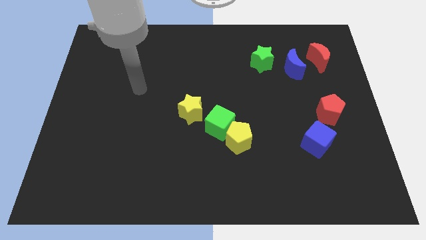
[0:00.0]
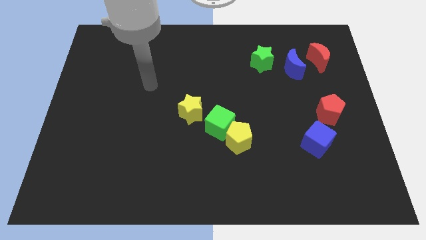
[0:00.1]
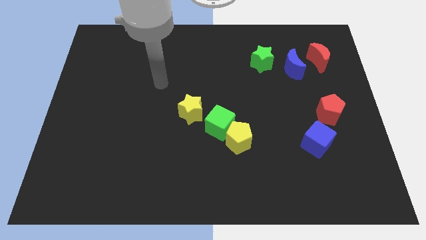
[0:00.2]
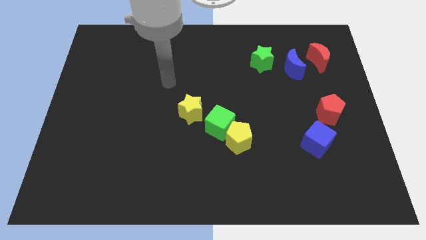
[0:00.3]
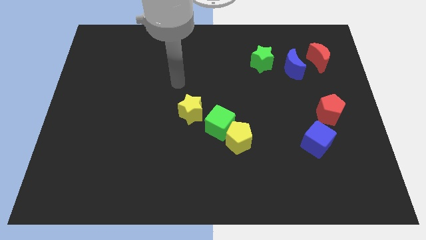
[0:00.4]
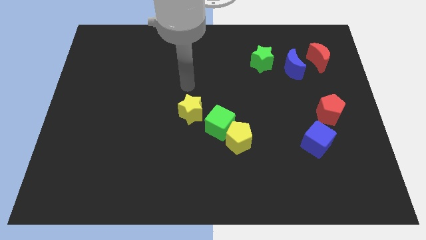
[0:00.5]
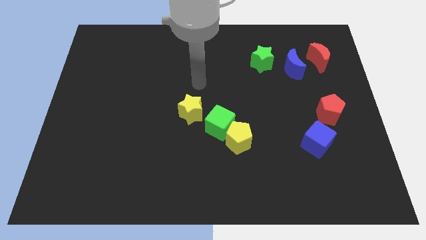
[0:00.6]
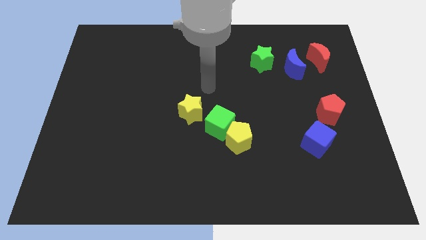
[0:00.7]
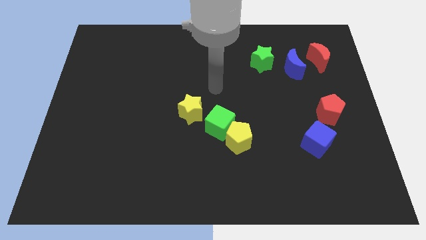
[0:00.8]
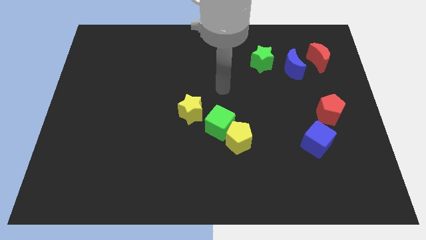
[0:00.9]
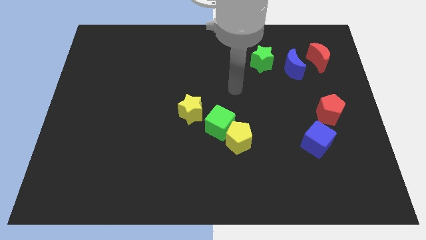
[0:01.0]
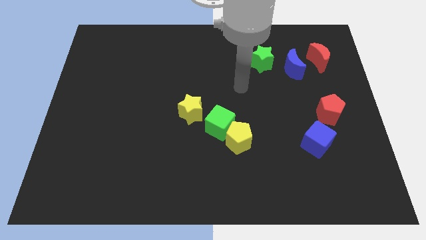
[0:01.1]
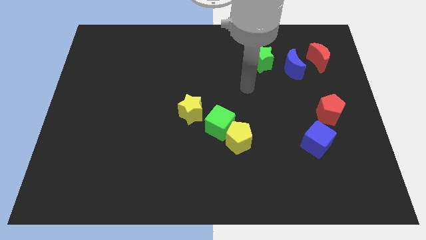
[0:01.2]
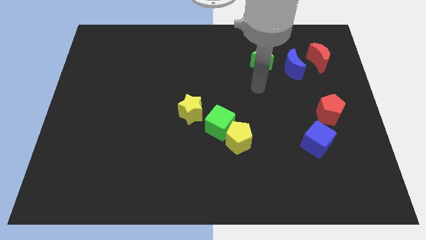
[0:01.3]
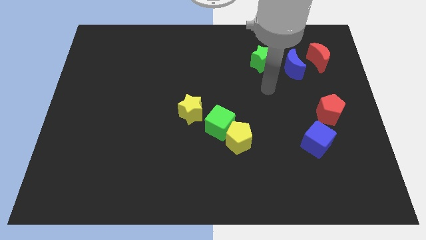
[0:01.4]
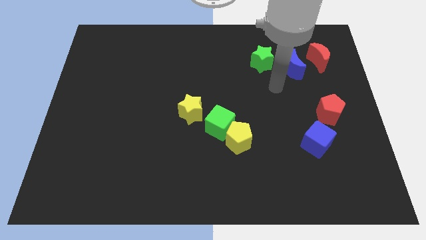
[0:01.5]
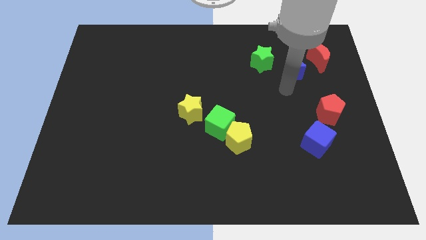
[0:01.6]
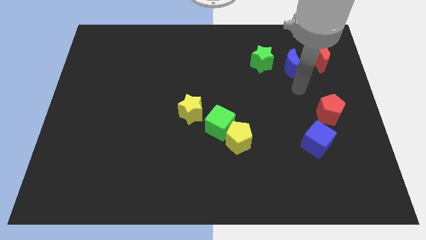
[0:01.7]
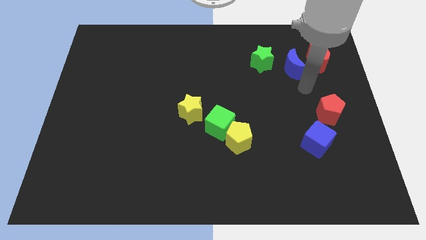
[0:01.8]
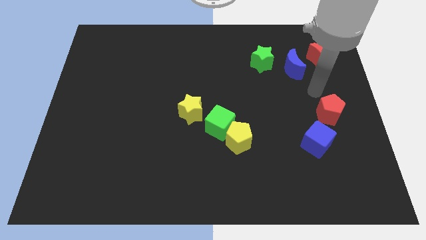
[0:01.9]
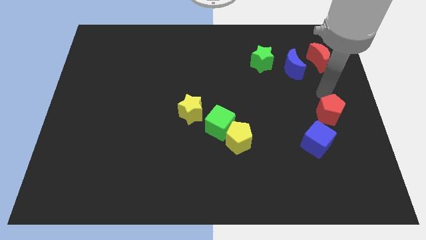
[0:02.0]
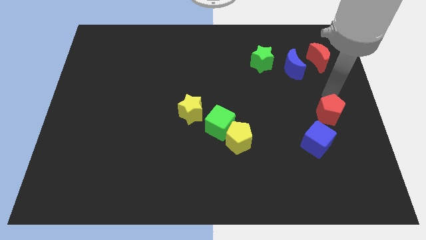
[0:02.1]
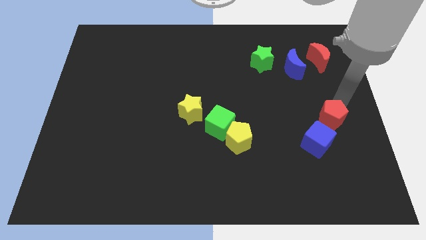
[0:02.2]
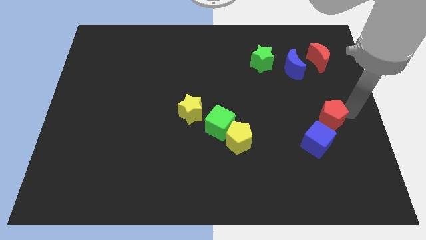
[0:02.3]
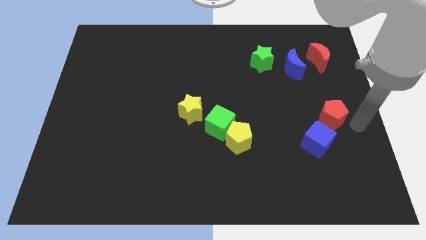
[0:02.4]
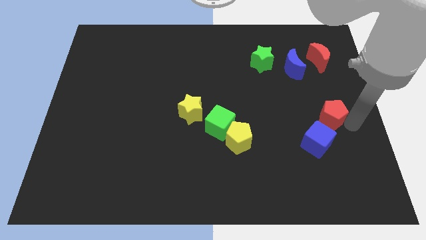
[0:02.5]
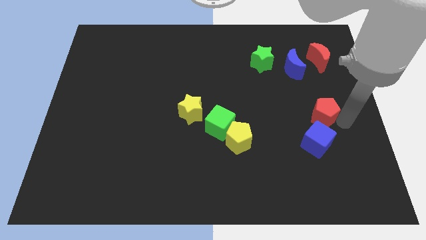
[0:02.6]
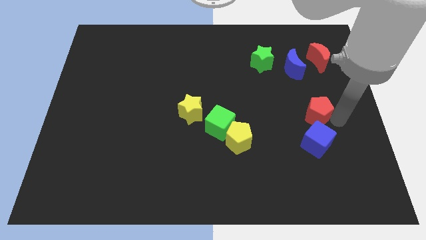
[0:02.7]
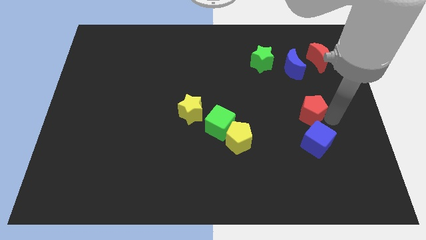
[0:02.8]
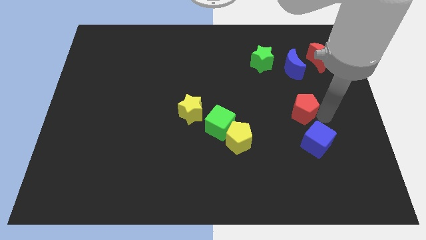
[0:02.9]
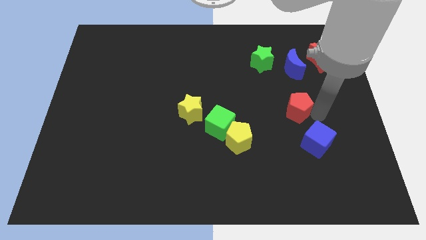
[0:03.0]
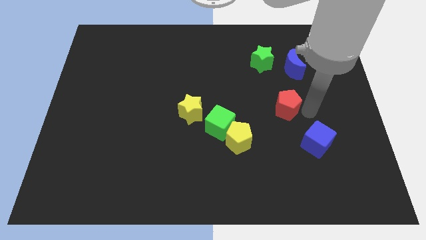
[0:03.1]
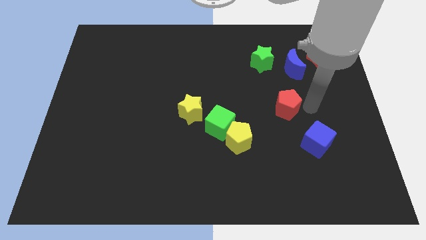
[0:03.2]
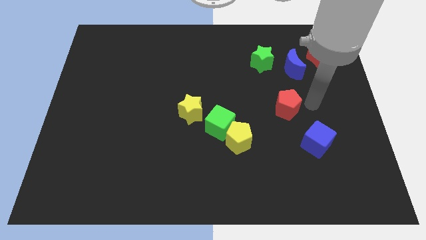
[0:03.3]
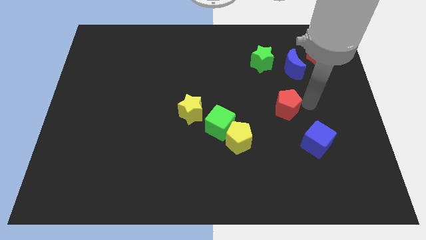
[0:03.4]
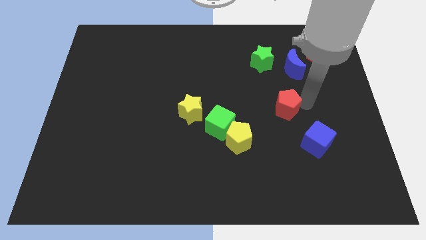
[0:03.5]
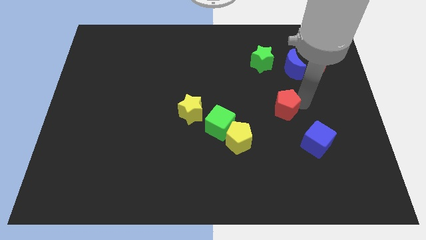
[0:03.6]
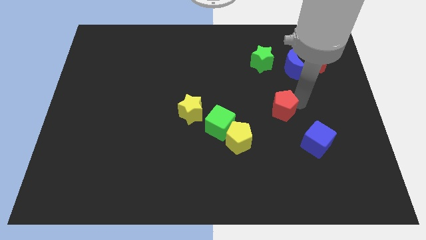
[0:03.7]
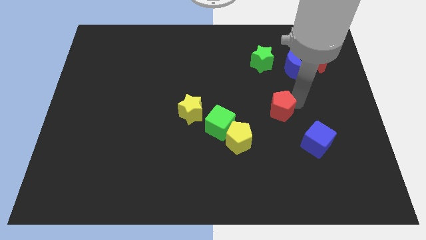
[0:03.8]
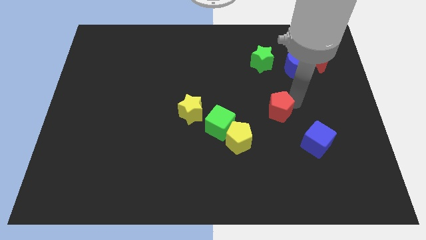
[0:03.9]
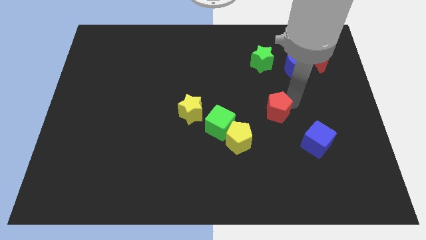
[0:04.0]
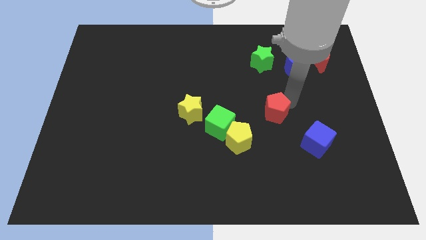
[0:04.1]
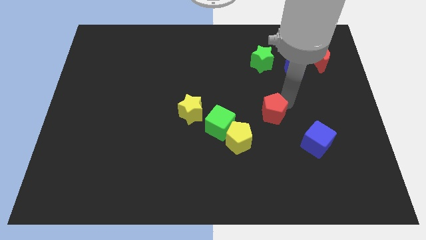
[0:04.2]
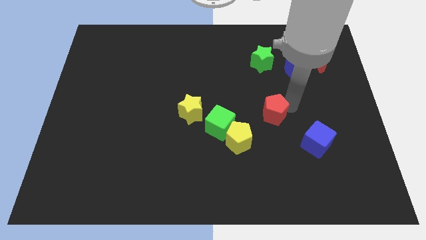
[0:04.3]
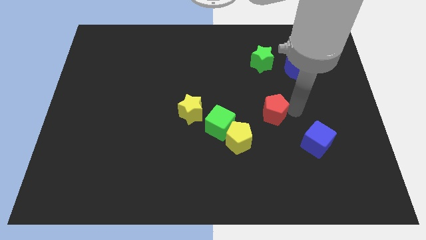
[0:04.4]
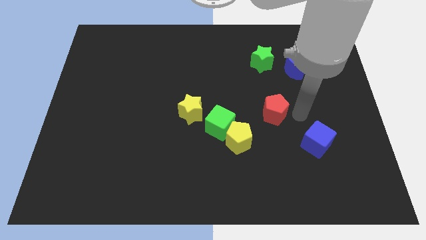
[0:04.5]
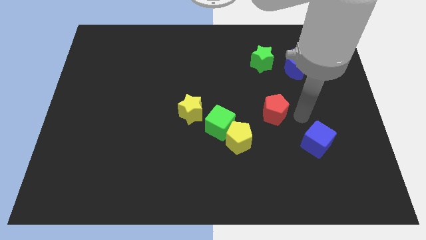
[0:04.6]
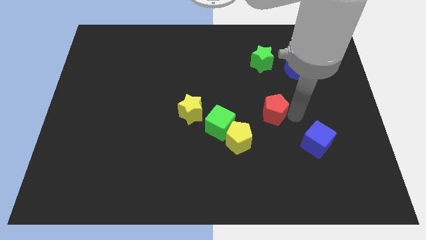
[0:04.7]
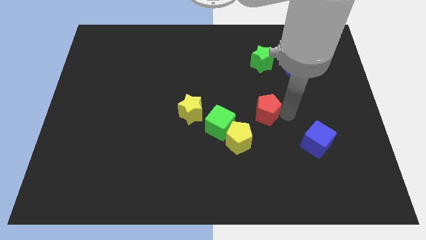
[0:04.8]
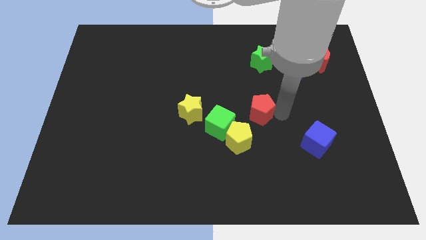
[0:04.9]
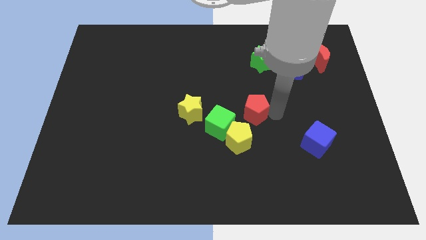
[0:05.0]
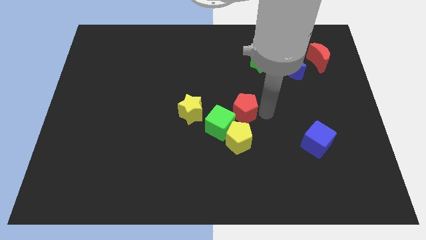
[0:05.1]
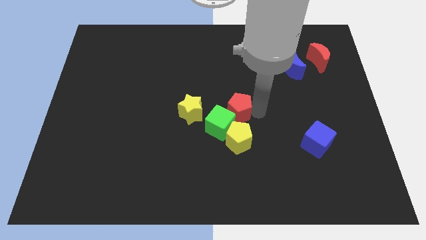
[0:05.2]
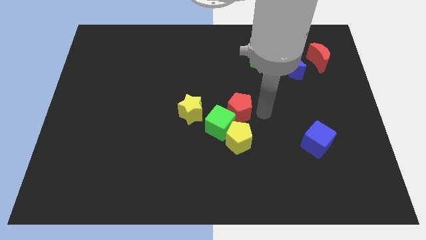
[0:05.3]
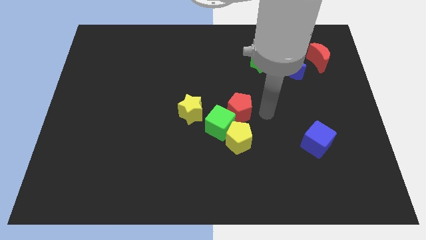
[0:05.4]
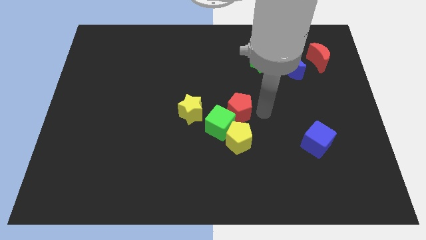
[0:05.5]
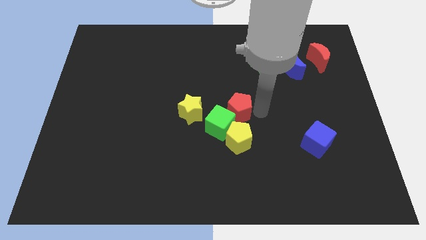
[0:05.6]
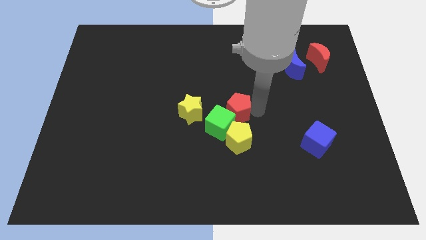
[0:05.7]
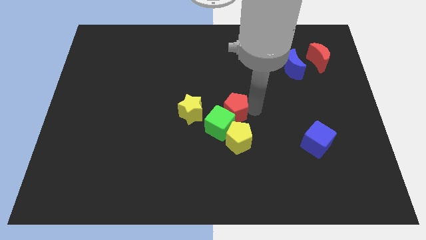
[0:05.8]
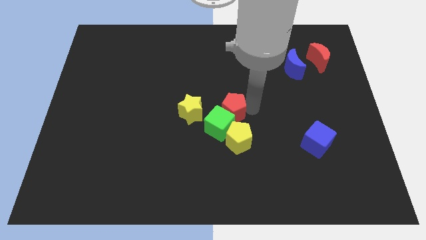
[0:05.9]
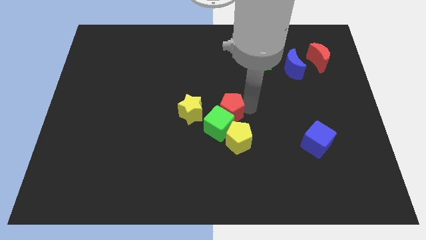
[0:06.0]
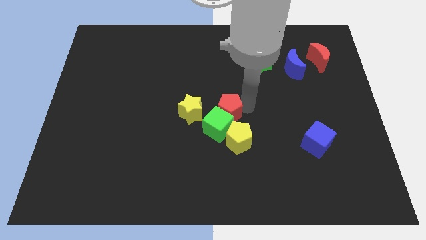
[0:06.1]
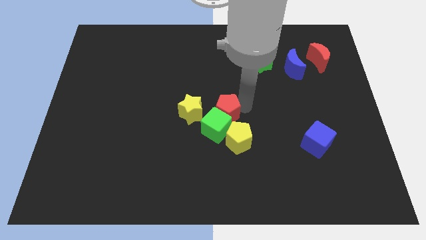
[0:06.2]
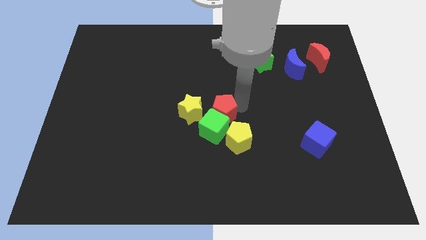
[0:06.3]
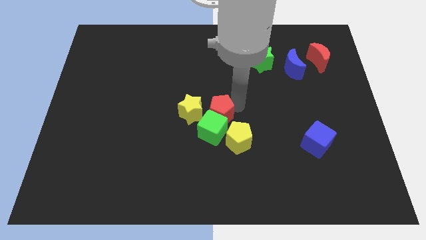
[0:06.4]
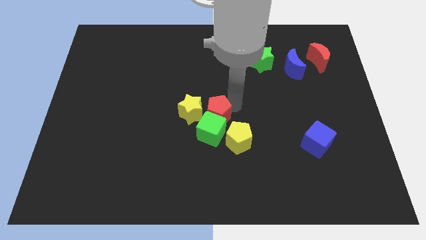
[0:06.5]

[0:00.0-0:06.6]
slide the red pentagon to the yellow star

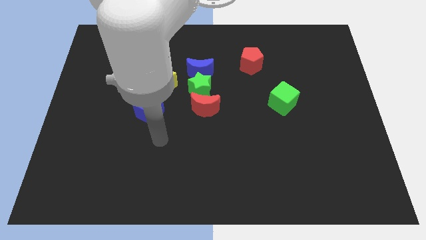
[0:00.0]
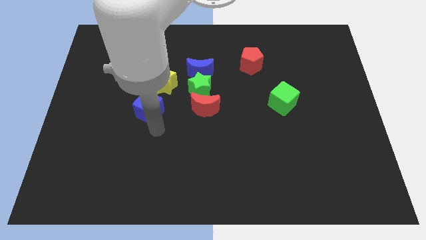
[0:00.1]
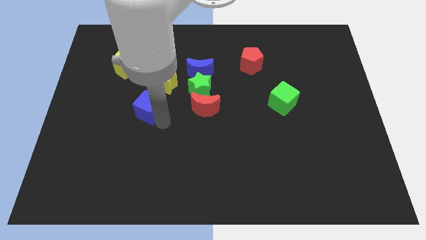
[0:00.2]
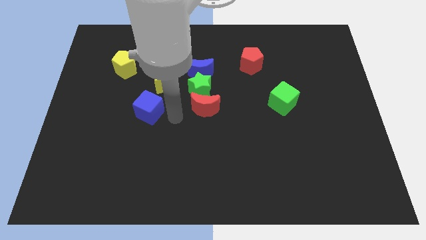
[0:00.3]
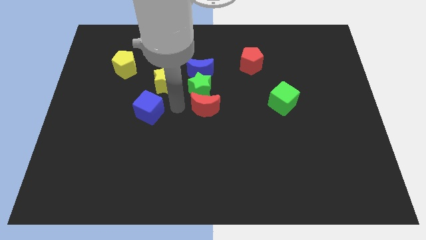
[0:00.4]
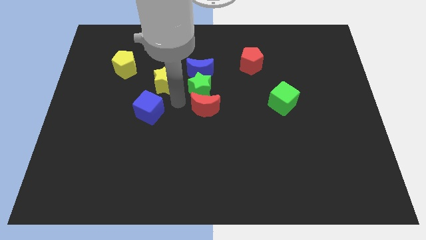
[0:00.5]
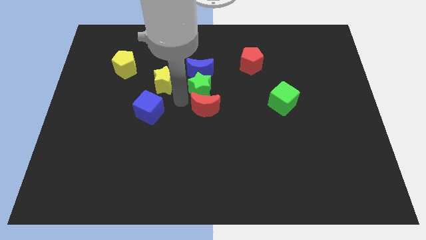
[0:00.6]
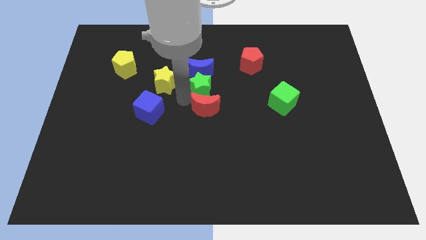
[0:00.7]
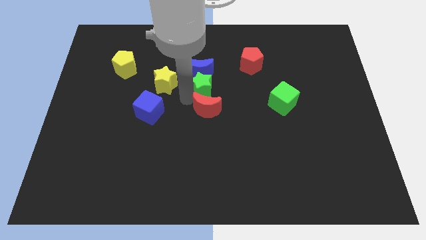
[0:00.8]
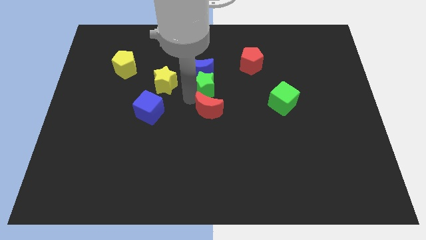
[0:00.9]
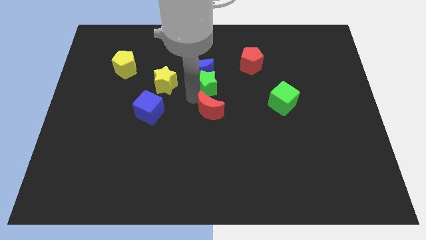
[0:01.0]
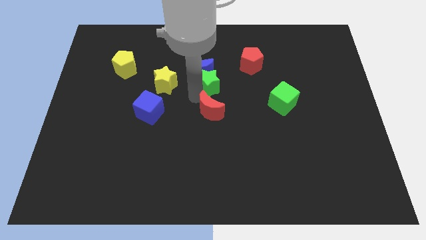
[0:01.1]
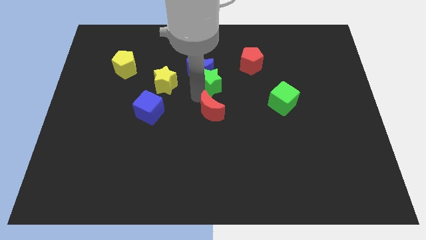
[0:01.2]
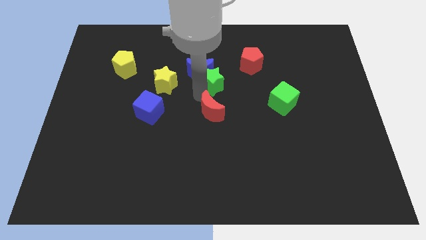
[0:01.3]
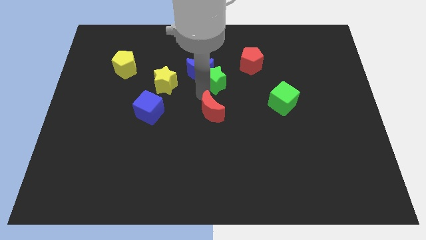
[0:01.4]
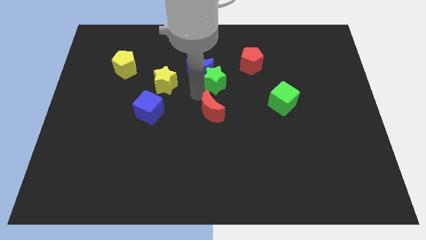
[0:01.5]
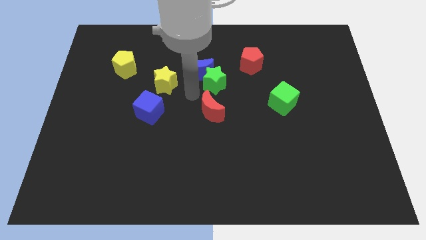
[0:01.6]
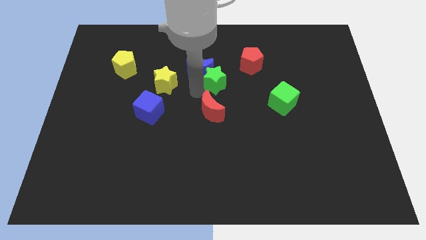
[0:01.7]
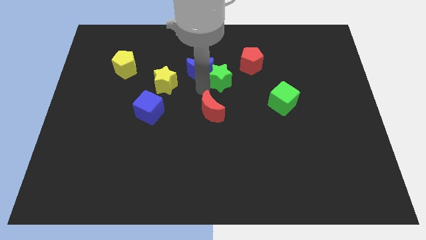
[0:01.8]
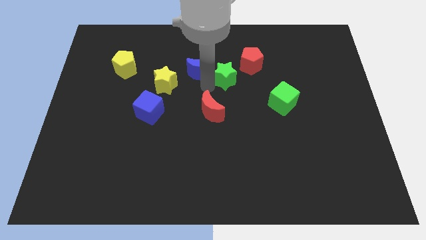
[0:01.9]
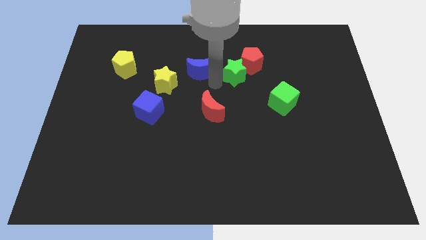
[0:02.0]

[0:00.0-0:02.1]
move the green star towards the red pentagon
